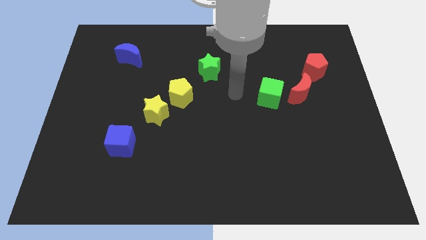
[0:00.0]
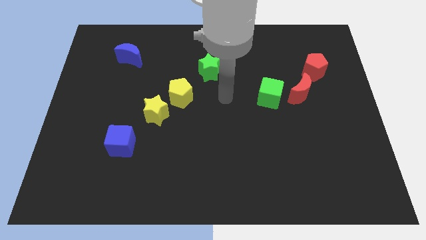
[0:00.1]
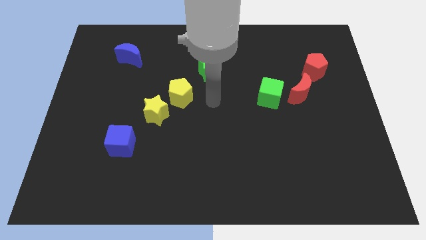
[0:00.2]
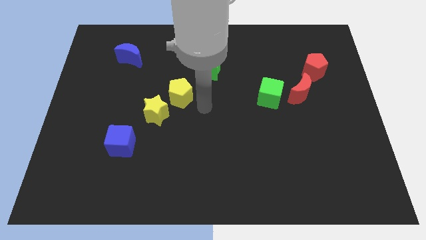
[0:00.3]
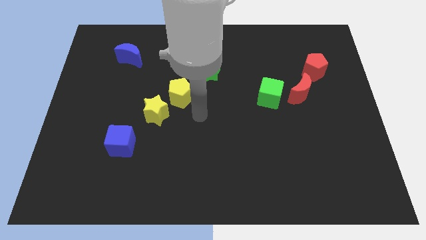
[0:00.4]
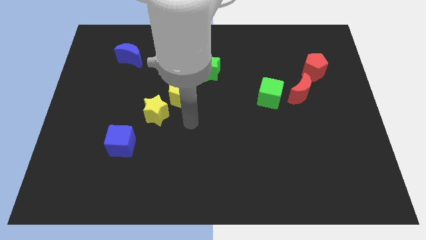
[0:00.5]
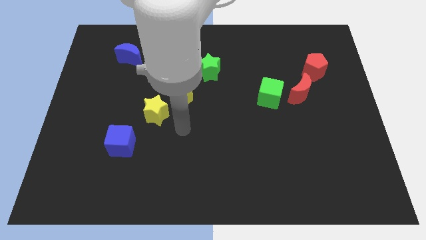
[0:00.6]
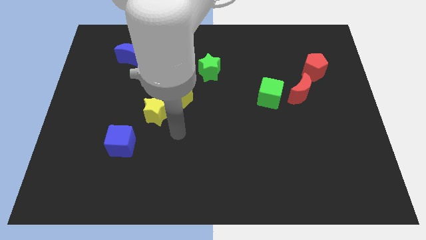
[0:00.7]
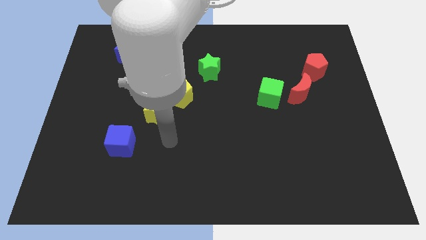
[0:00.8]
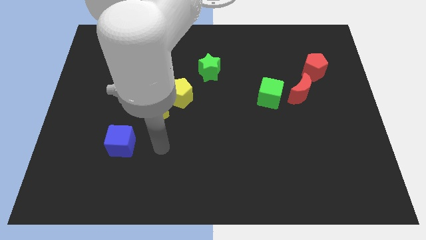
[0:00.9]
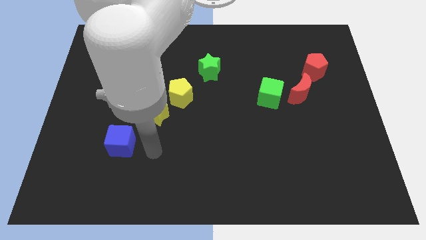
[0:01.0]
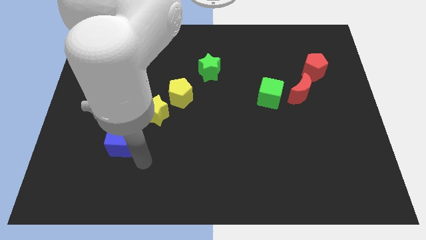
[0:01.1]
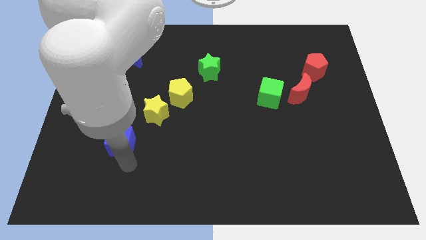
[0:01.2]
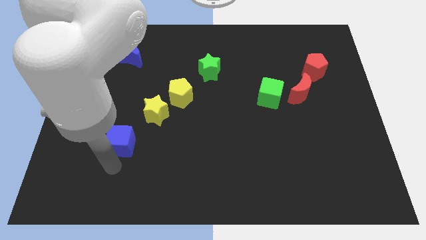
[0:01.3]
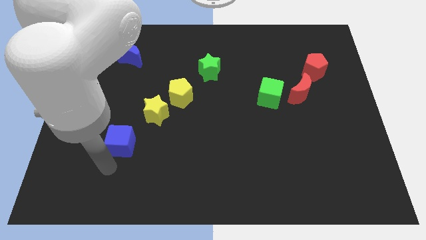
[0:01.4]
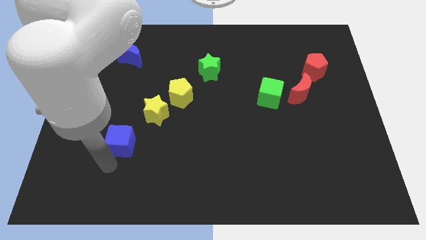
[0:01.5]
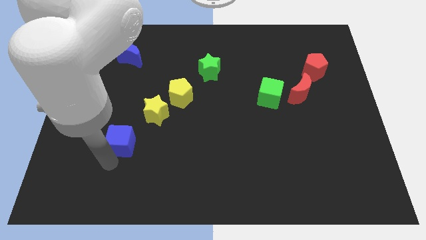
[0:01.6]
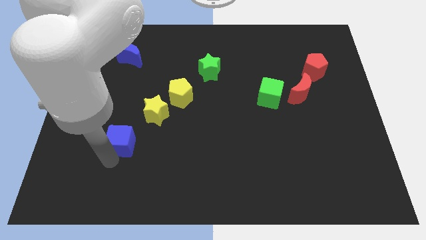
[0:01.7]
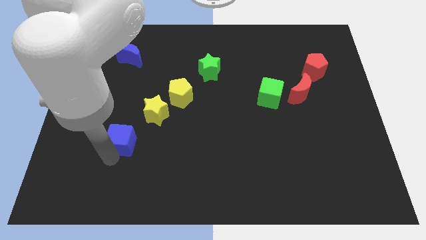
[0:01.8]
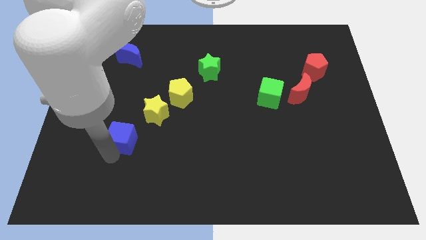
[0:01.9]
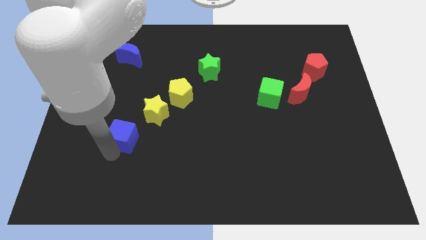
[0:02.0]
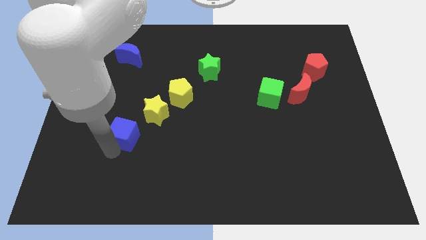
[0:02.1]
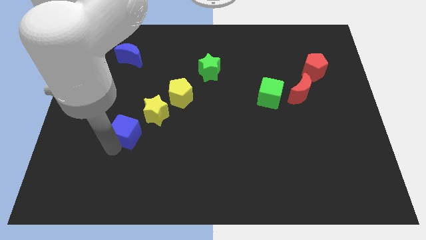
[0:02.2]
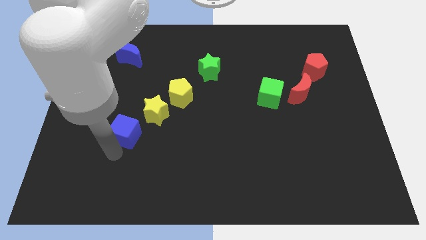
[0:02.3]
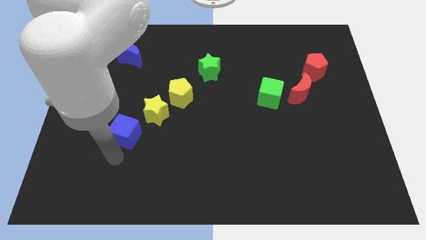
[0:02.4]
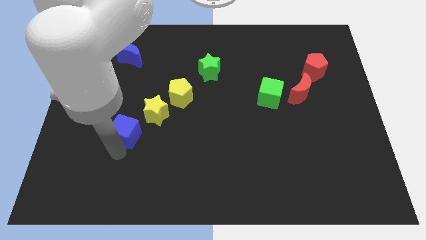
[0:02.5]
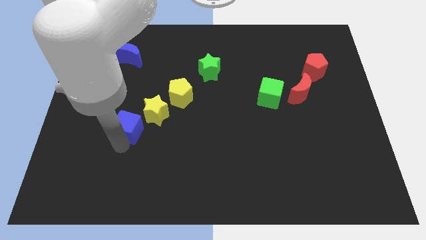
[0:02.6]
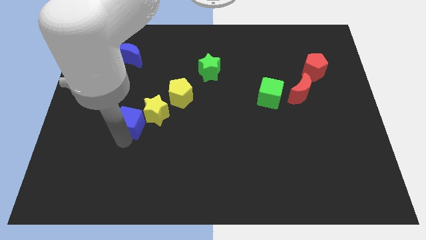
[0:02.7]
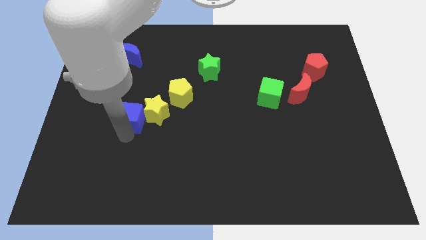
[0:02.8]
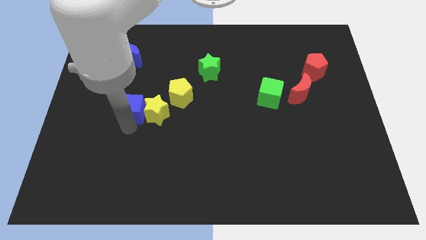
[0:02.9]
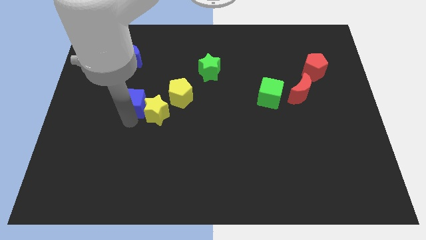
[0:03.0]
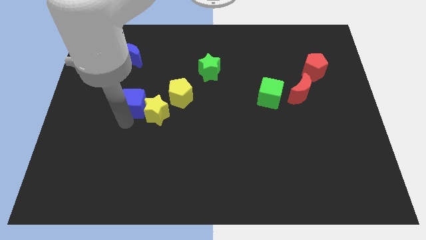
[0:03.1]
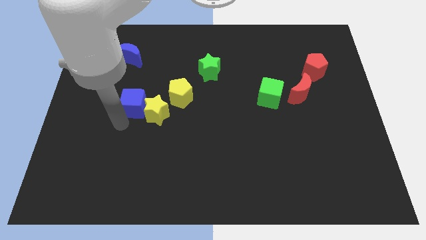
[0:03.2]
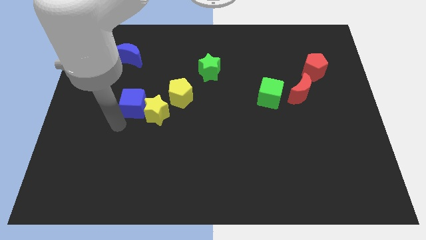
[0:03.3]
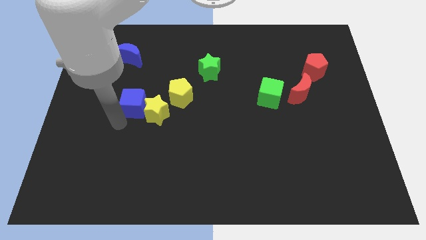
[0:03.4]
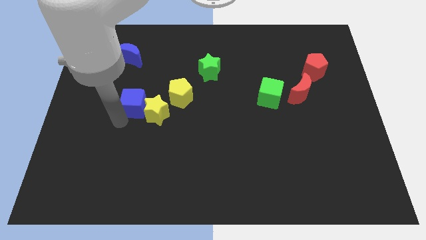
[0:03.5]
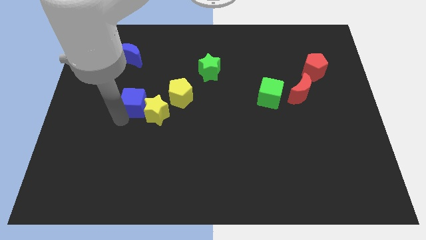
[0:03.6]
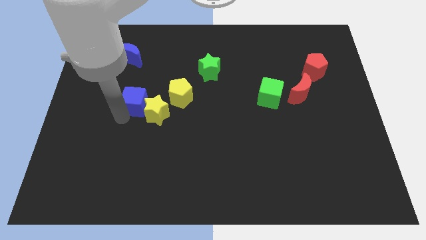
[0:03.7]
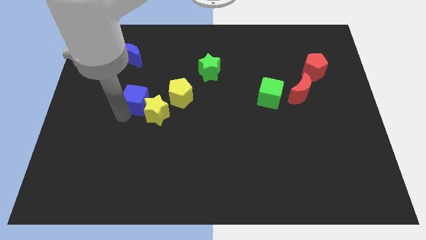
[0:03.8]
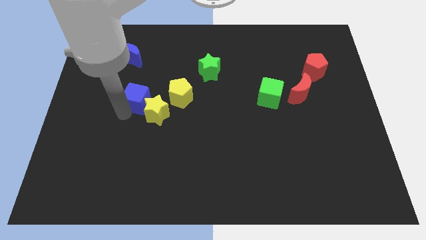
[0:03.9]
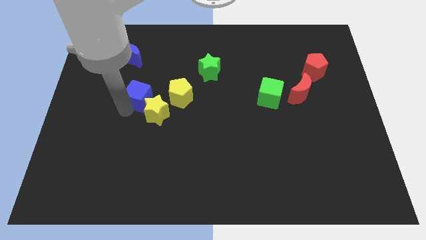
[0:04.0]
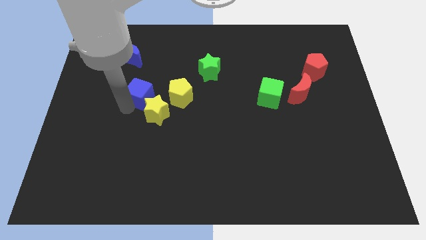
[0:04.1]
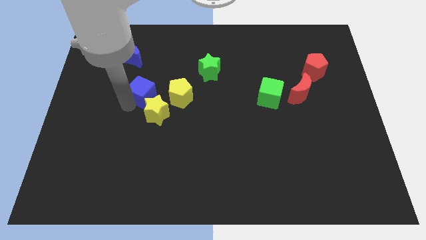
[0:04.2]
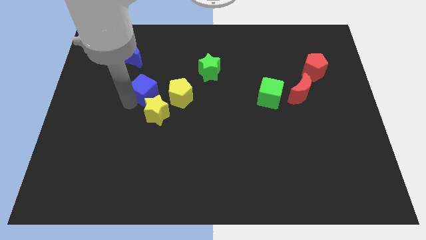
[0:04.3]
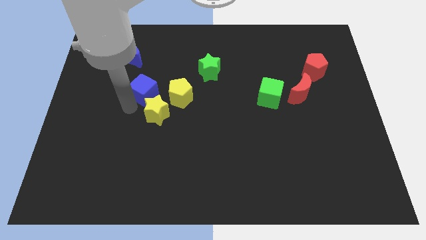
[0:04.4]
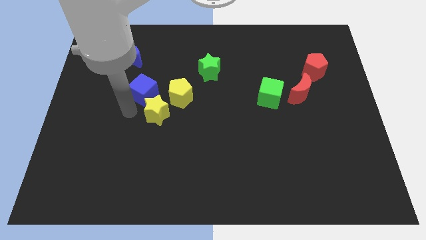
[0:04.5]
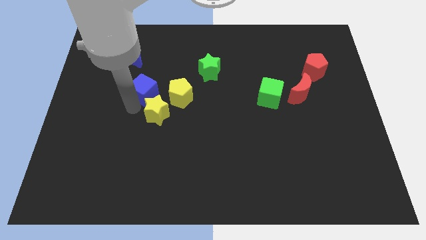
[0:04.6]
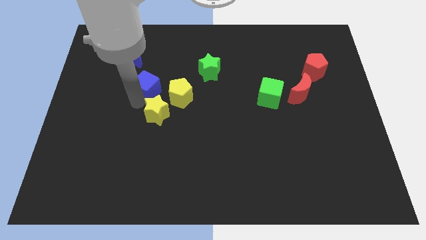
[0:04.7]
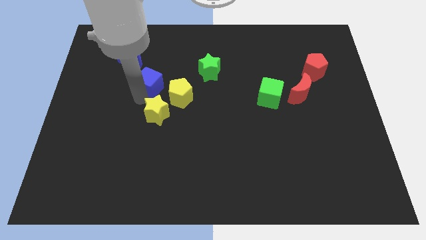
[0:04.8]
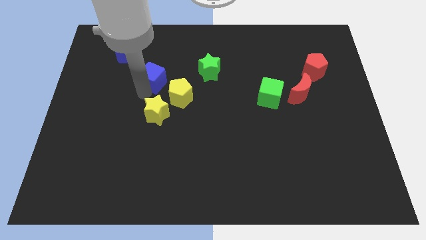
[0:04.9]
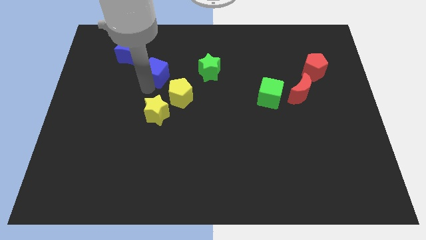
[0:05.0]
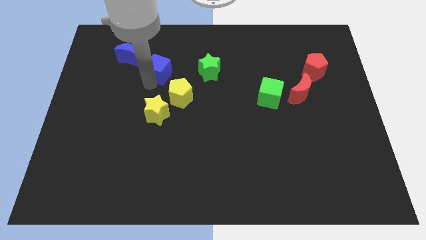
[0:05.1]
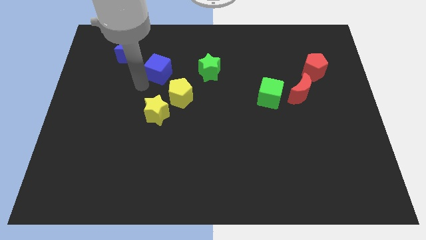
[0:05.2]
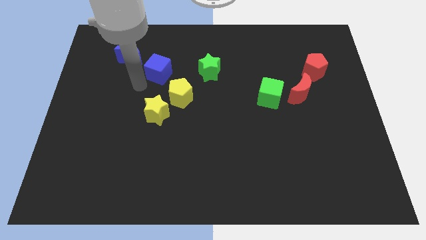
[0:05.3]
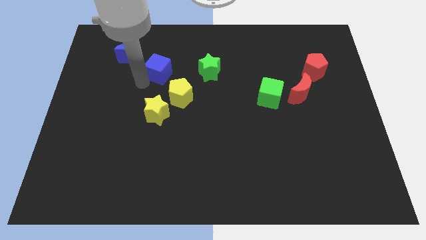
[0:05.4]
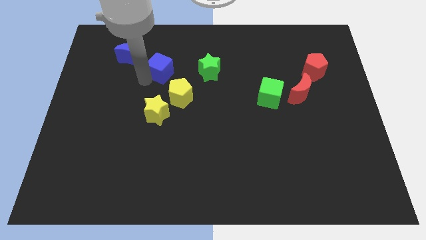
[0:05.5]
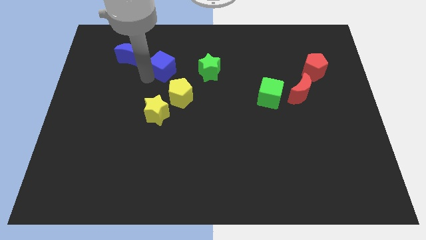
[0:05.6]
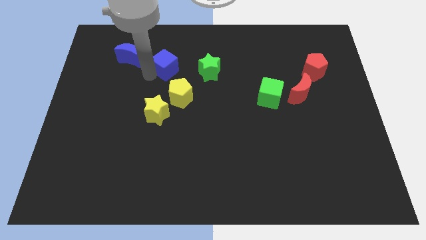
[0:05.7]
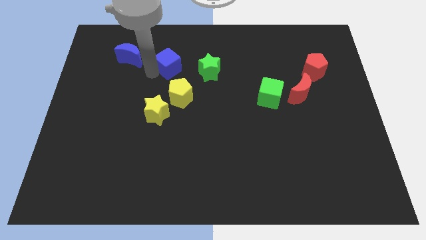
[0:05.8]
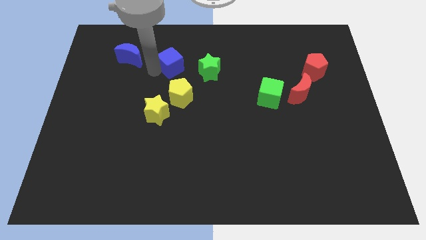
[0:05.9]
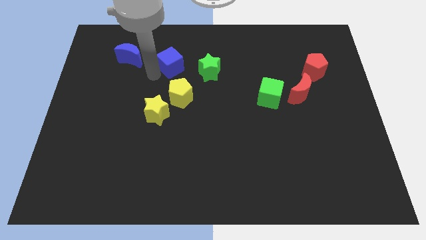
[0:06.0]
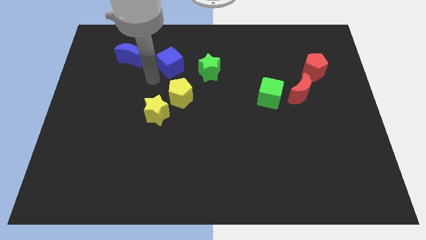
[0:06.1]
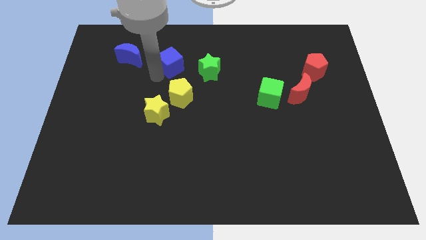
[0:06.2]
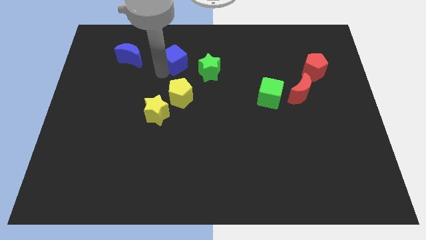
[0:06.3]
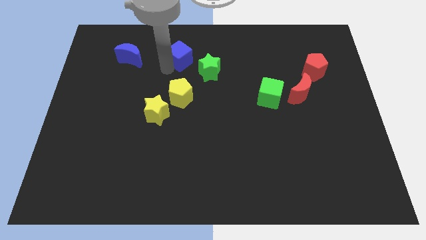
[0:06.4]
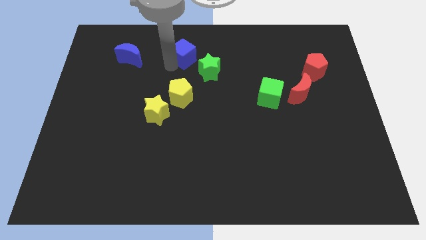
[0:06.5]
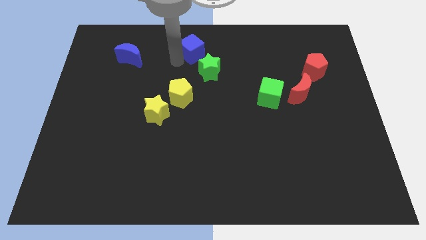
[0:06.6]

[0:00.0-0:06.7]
put the blue cube to the top
